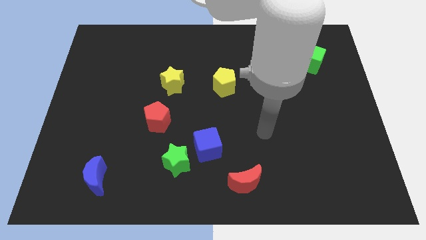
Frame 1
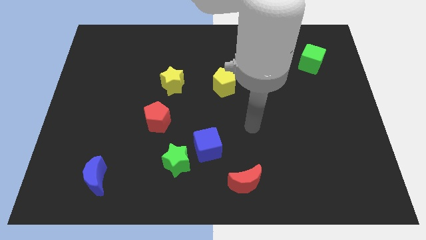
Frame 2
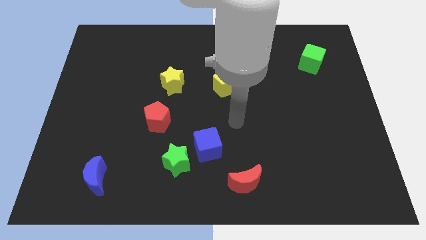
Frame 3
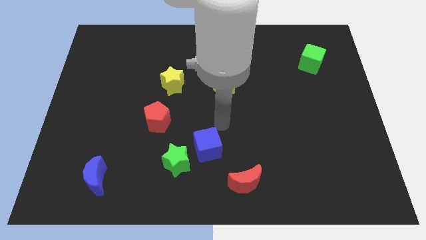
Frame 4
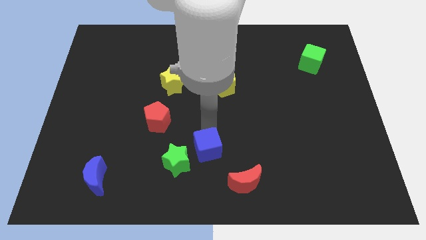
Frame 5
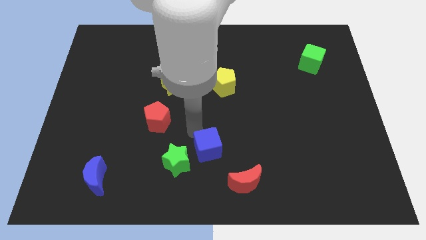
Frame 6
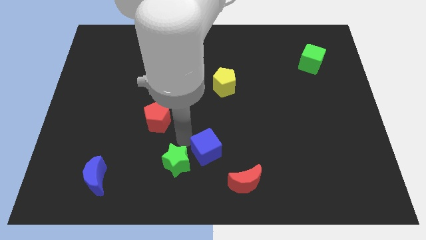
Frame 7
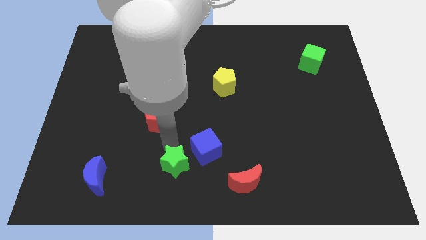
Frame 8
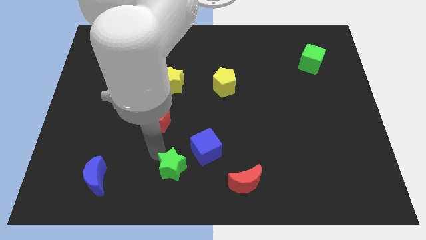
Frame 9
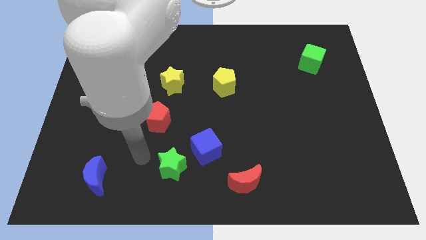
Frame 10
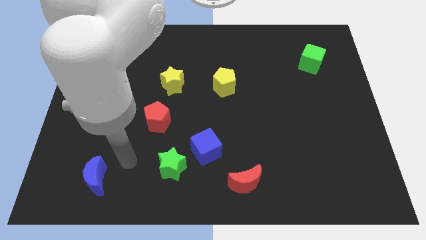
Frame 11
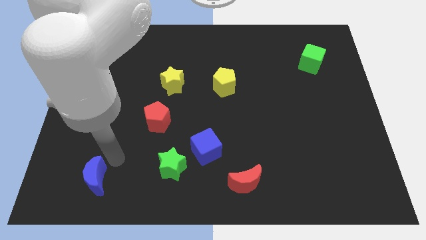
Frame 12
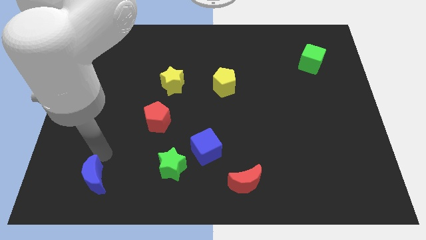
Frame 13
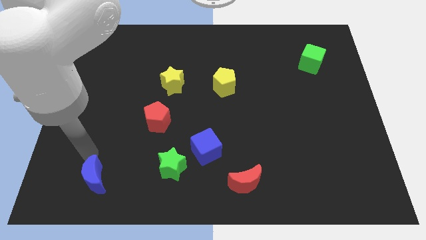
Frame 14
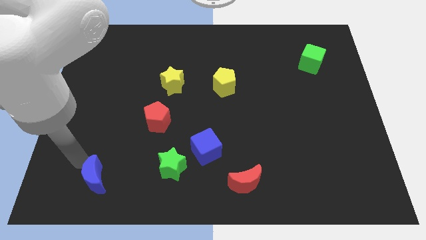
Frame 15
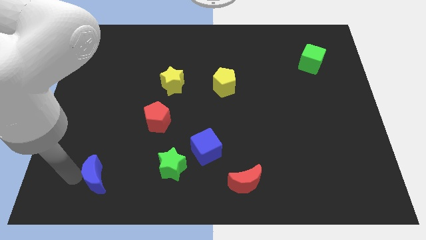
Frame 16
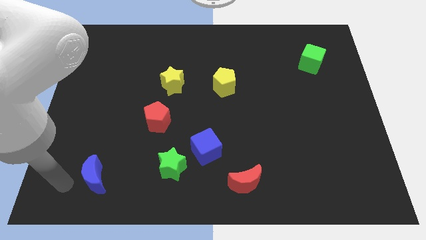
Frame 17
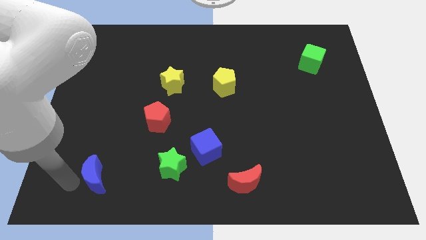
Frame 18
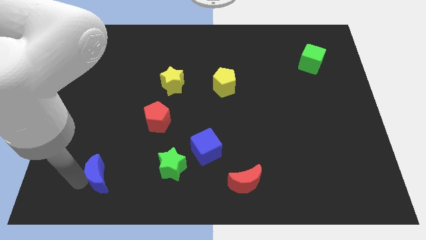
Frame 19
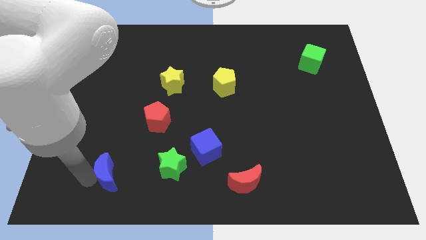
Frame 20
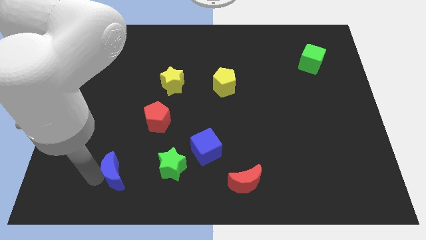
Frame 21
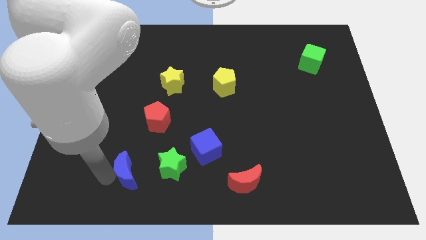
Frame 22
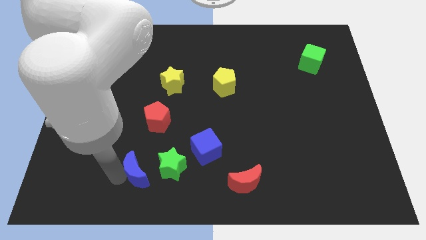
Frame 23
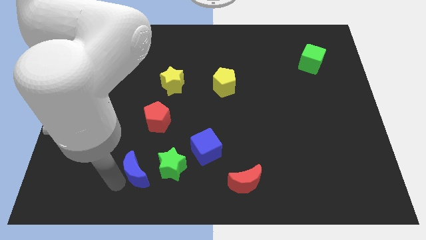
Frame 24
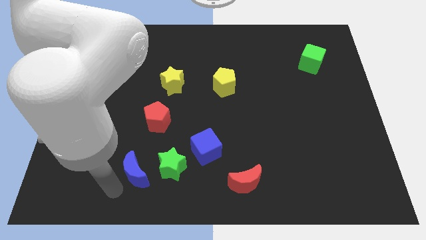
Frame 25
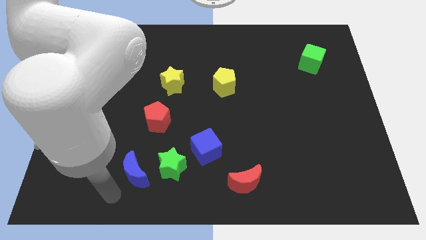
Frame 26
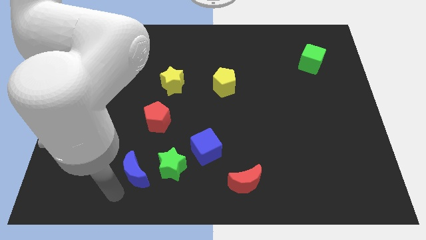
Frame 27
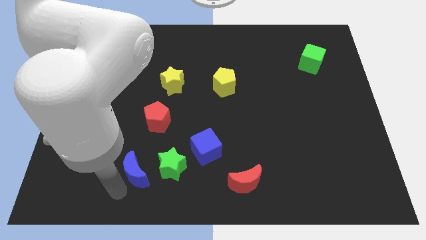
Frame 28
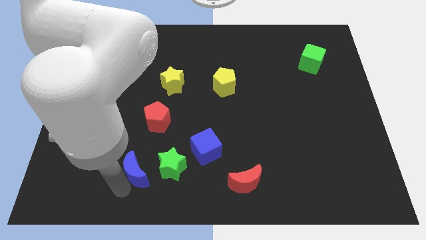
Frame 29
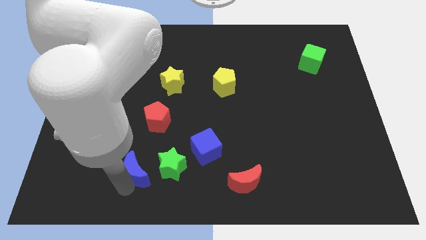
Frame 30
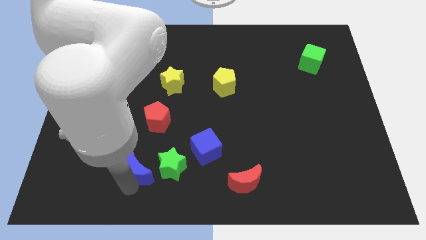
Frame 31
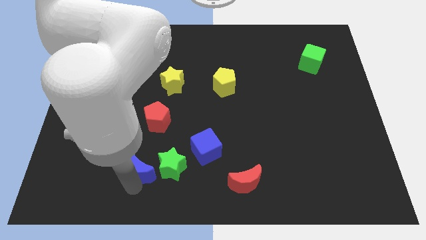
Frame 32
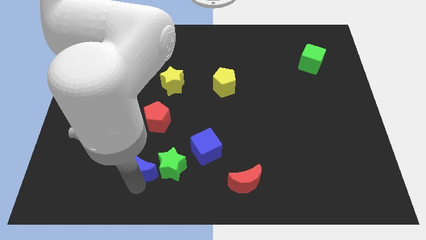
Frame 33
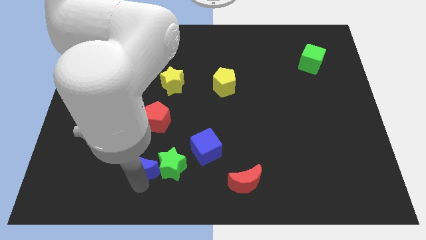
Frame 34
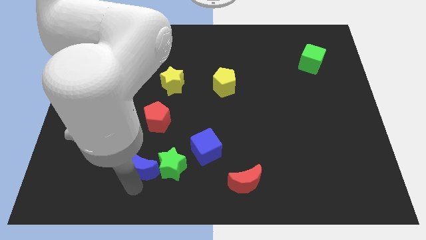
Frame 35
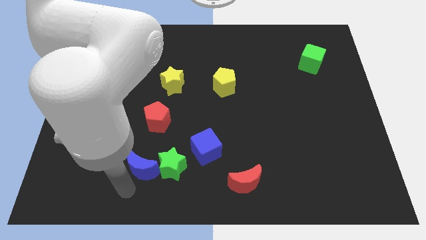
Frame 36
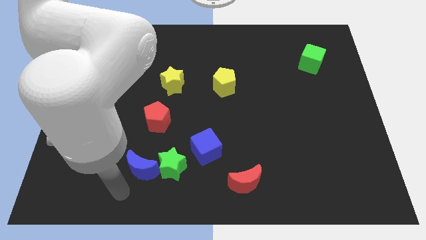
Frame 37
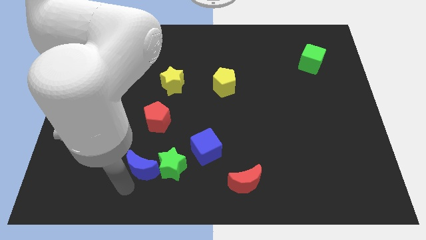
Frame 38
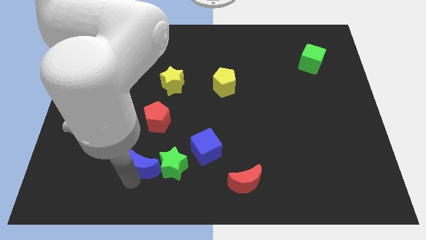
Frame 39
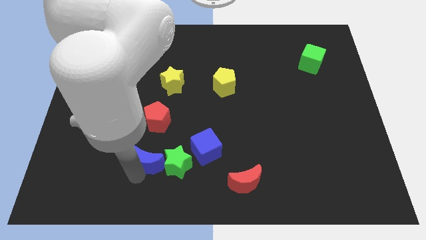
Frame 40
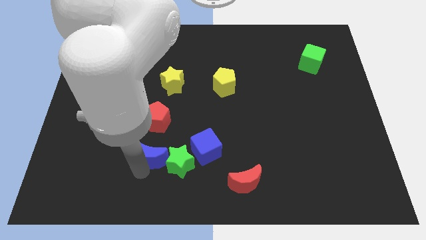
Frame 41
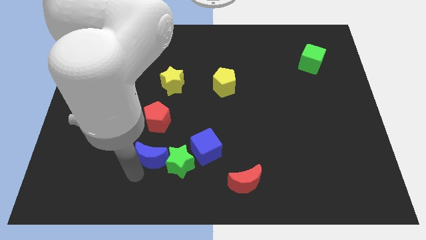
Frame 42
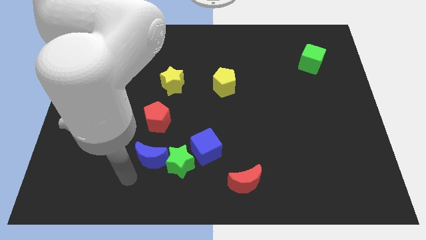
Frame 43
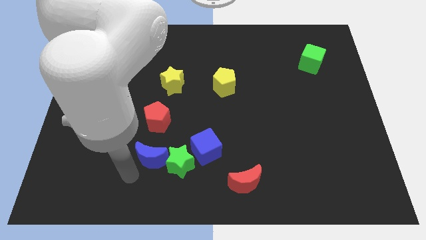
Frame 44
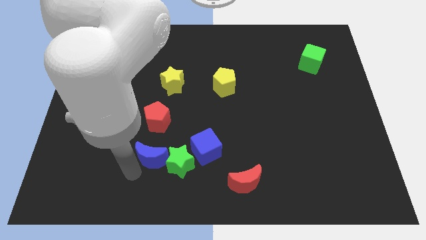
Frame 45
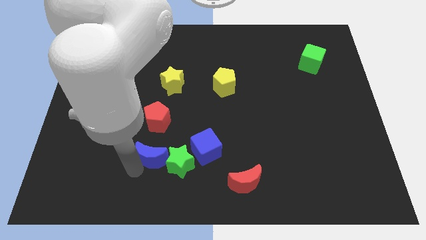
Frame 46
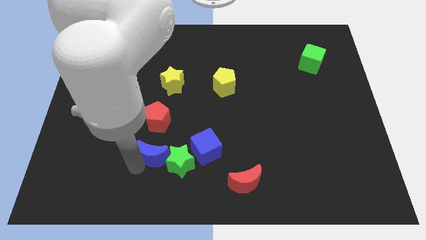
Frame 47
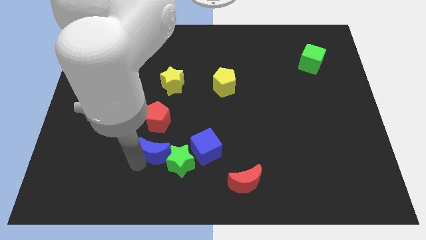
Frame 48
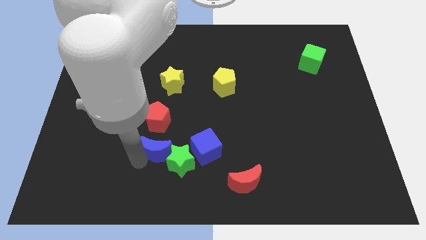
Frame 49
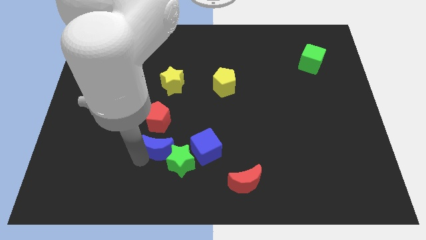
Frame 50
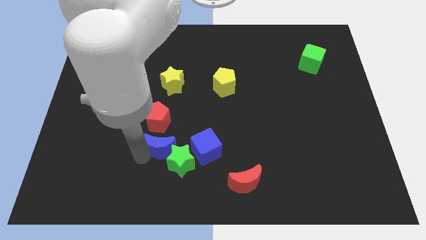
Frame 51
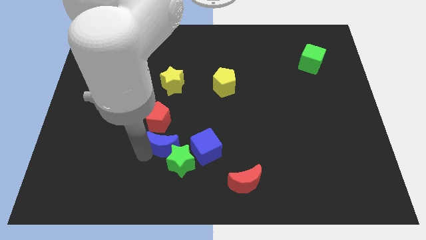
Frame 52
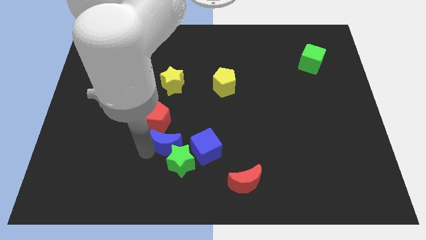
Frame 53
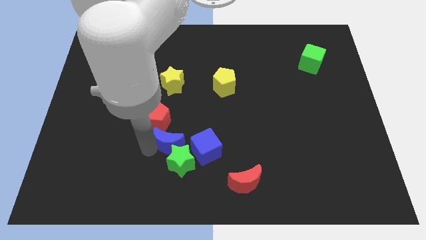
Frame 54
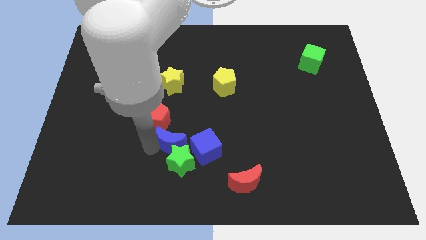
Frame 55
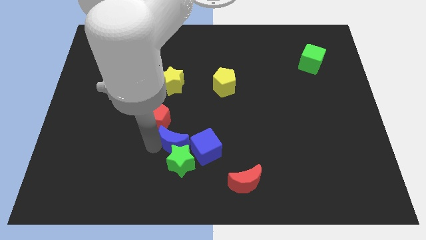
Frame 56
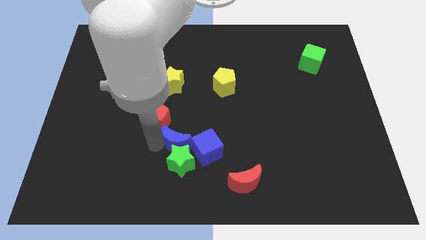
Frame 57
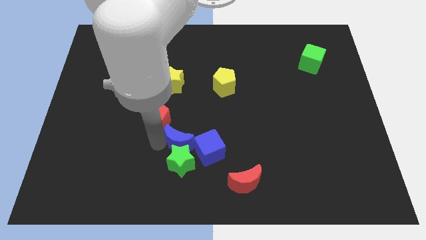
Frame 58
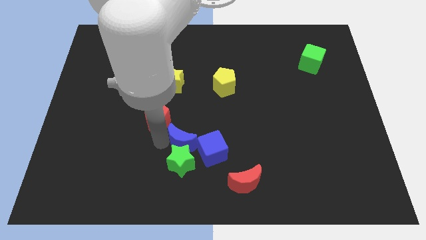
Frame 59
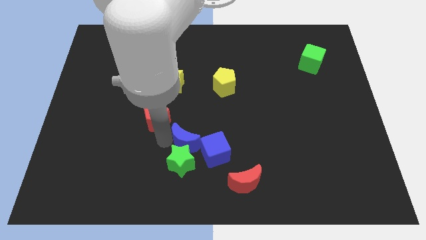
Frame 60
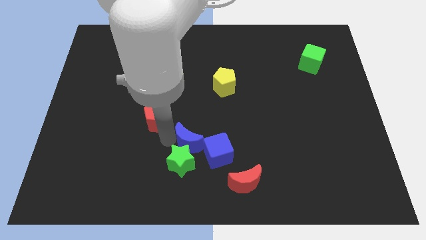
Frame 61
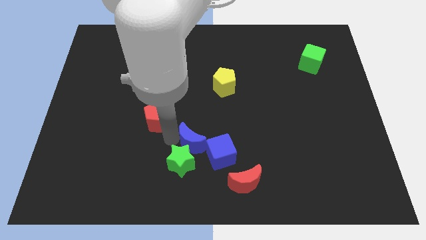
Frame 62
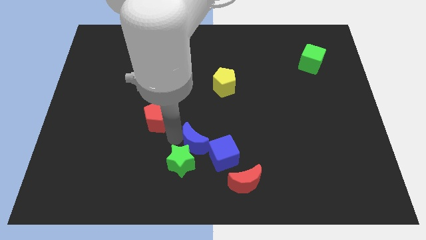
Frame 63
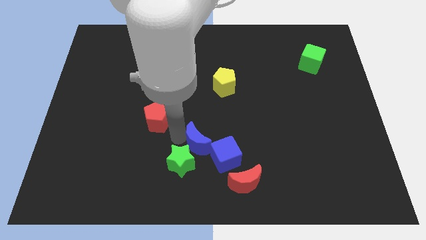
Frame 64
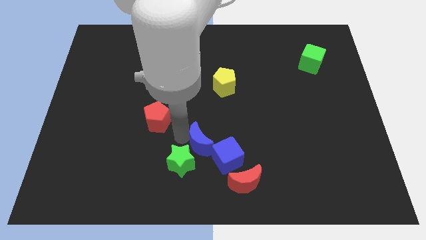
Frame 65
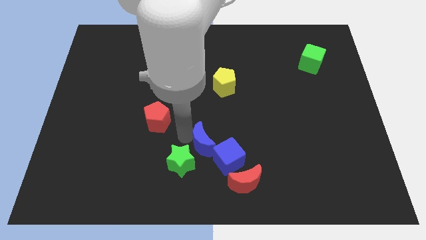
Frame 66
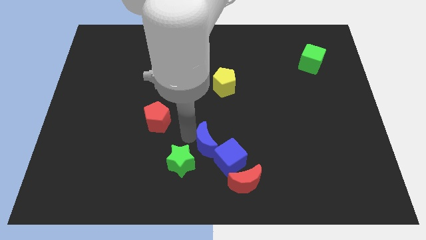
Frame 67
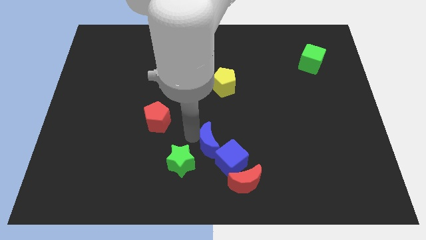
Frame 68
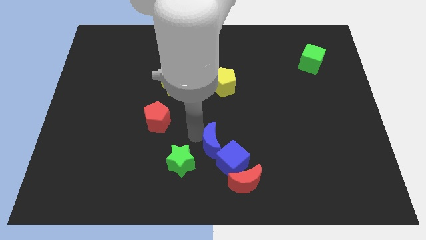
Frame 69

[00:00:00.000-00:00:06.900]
put the blue moon close to the blue cube
